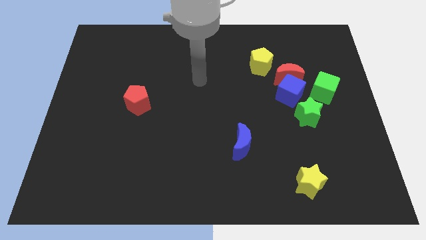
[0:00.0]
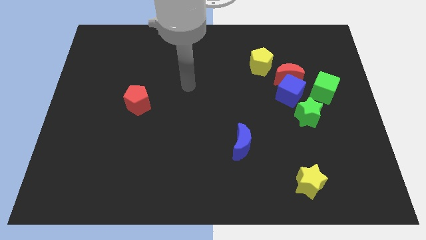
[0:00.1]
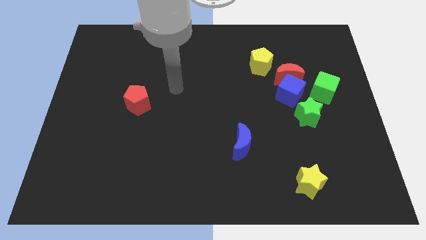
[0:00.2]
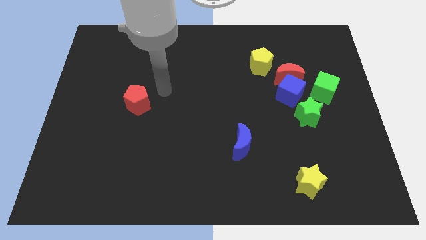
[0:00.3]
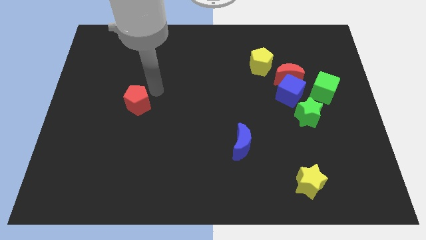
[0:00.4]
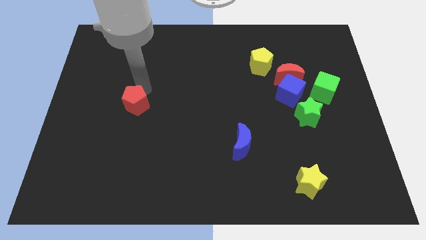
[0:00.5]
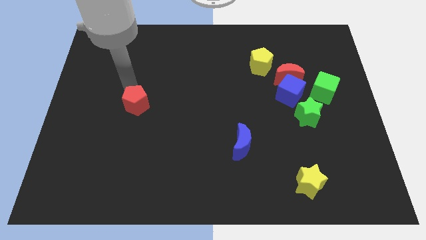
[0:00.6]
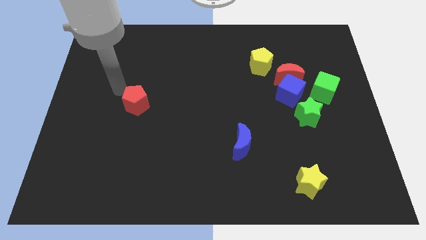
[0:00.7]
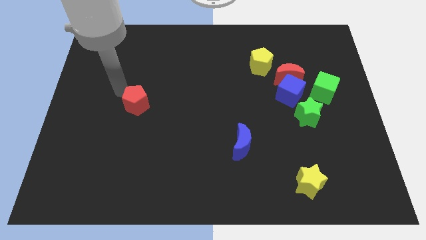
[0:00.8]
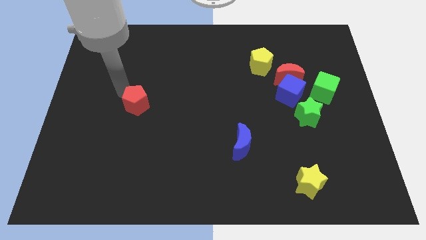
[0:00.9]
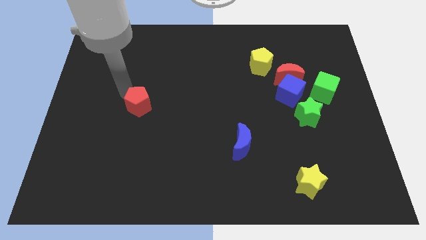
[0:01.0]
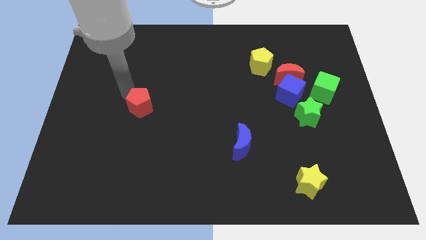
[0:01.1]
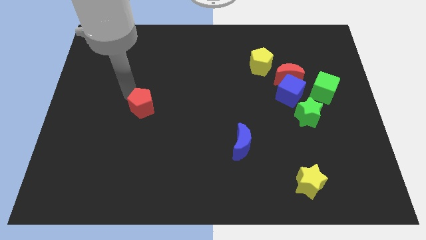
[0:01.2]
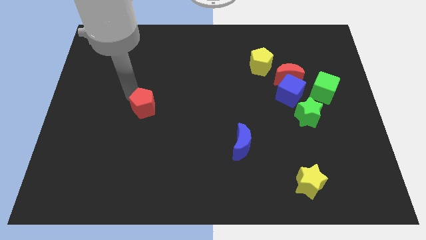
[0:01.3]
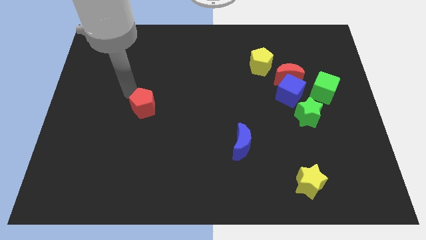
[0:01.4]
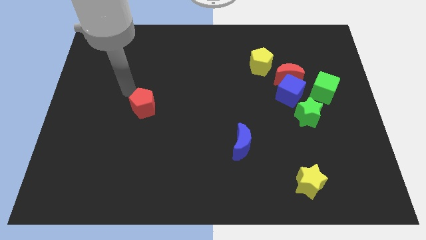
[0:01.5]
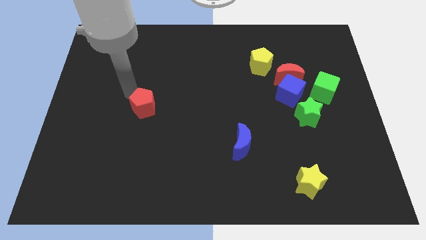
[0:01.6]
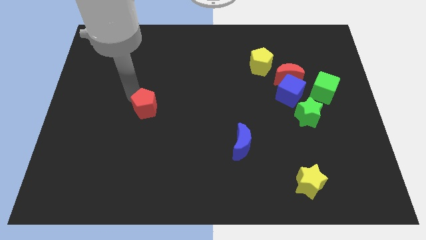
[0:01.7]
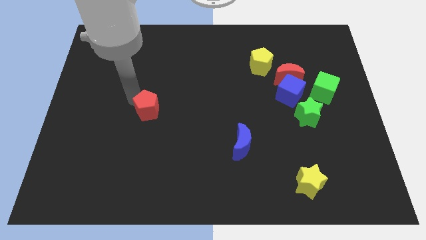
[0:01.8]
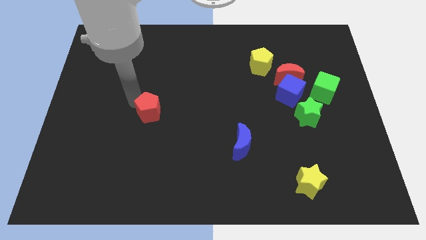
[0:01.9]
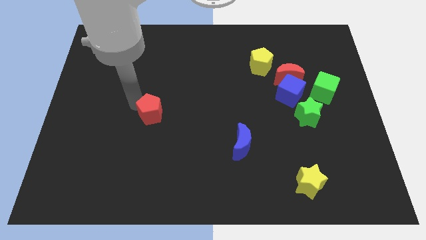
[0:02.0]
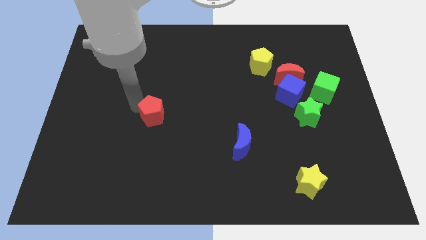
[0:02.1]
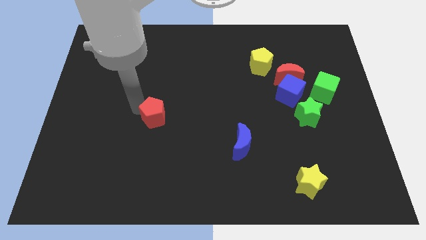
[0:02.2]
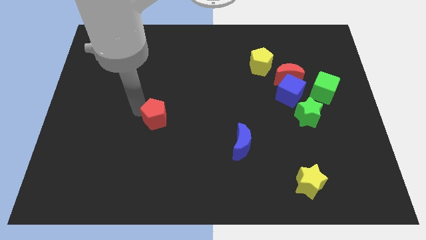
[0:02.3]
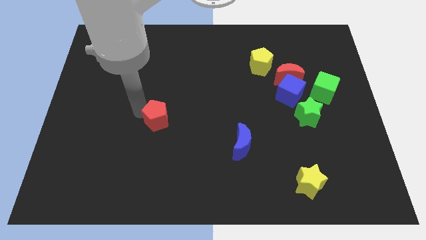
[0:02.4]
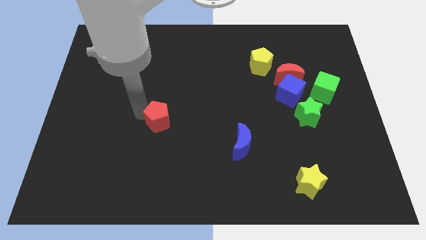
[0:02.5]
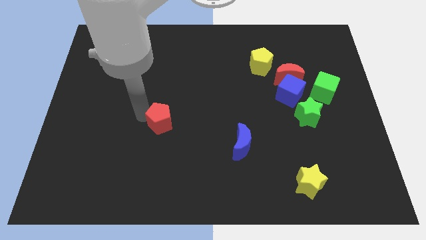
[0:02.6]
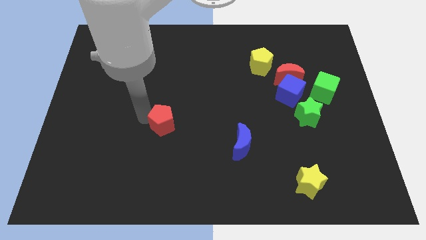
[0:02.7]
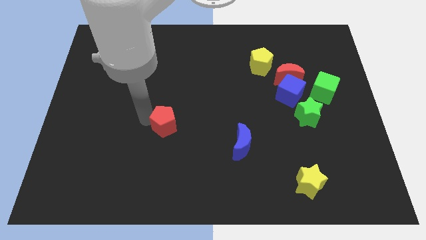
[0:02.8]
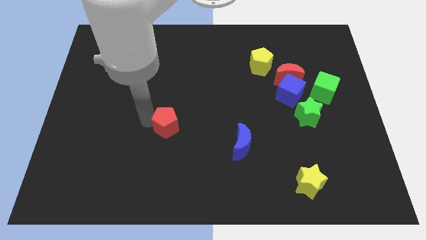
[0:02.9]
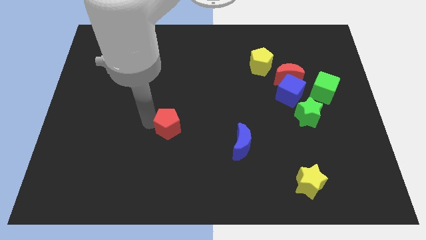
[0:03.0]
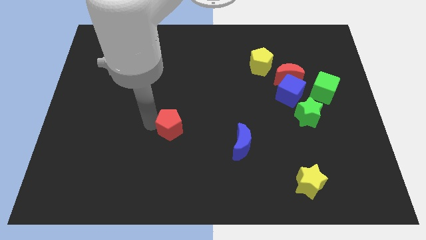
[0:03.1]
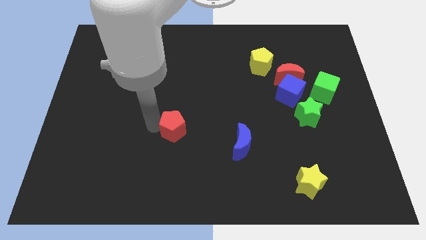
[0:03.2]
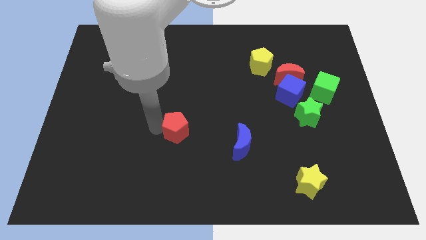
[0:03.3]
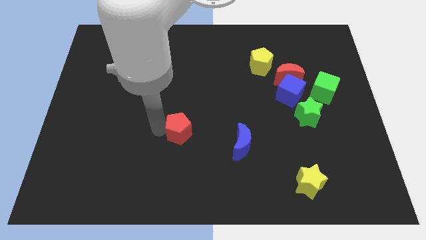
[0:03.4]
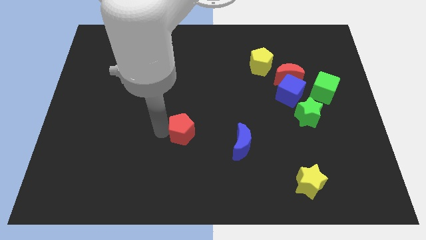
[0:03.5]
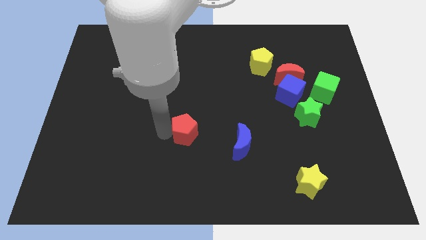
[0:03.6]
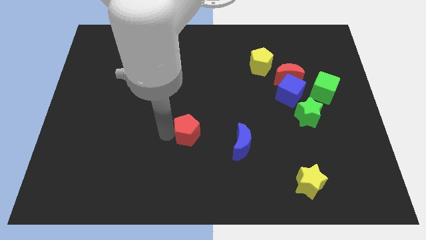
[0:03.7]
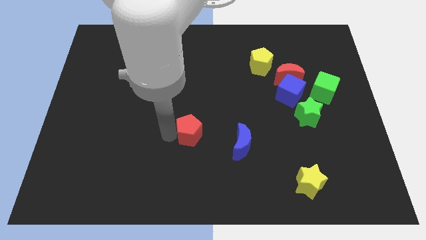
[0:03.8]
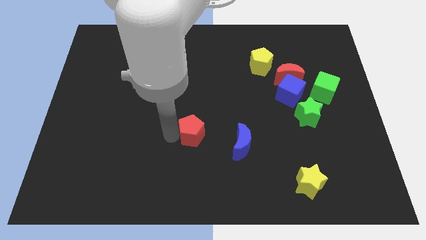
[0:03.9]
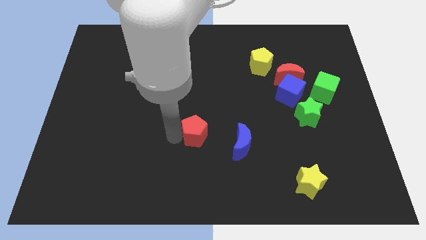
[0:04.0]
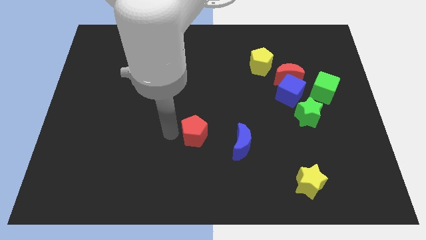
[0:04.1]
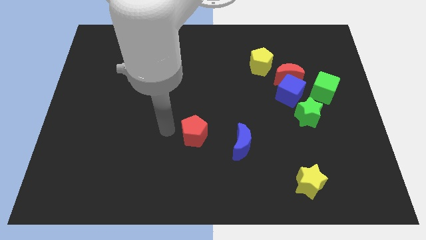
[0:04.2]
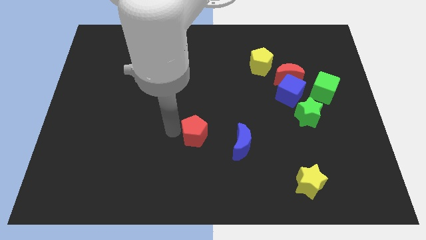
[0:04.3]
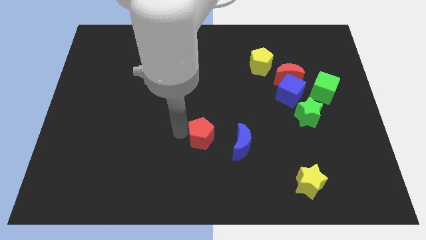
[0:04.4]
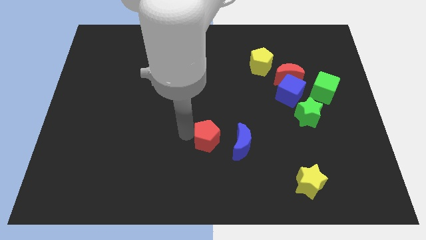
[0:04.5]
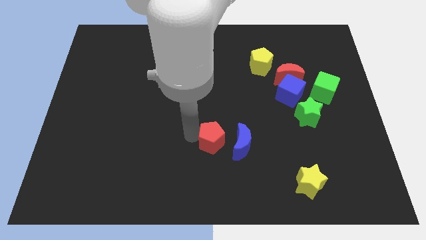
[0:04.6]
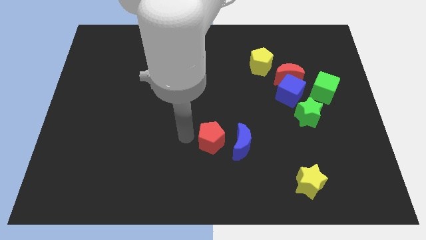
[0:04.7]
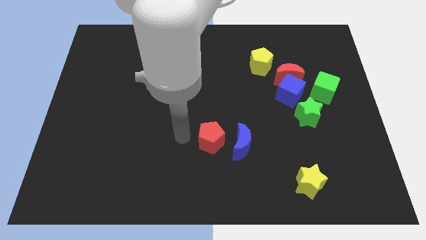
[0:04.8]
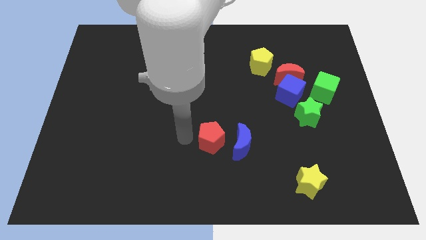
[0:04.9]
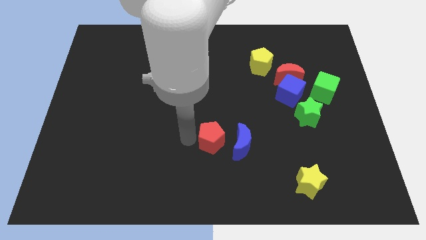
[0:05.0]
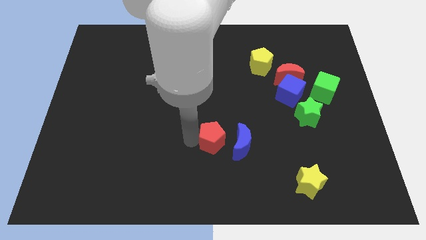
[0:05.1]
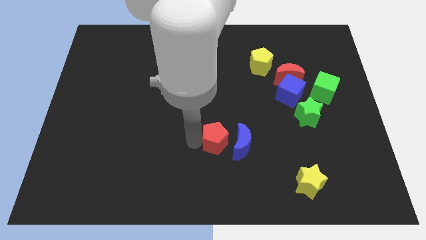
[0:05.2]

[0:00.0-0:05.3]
put the red pentagon to the blue moon

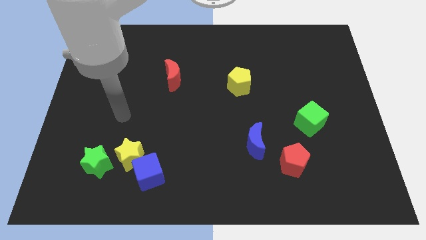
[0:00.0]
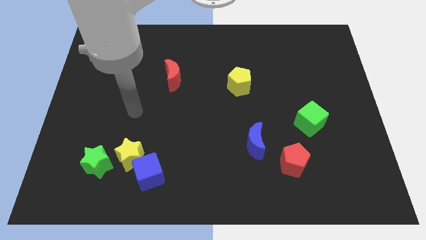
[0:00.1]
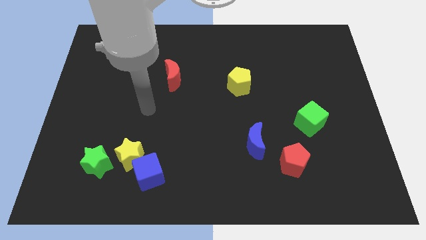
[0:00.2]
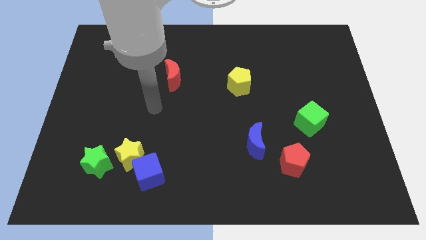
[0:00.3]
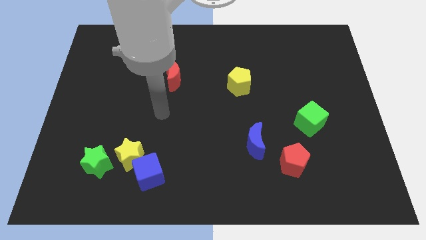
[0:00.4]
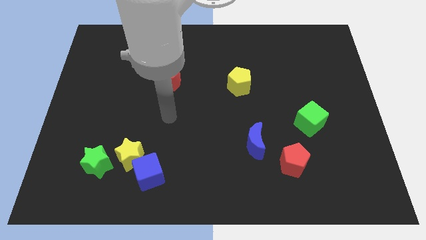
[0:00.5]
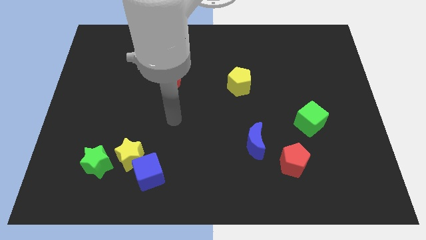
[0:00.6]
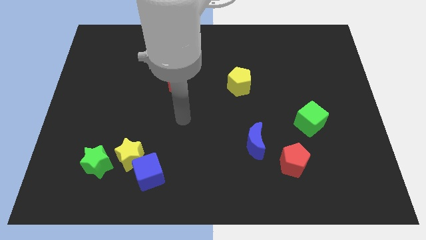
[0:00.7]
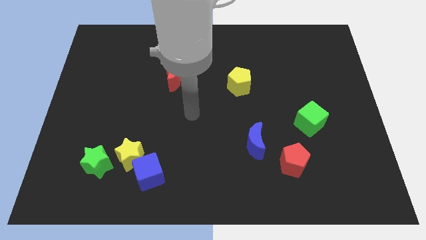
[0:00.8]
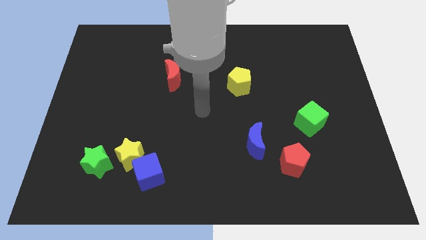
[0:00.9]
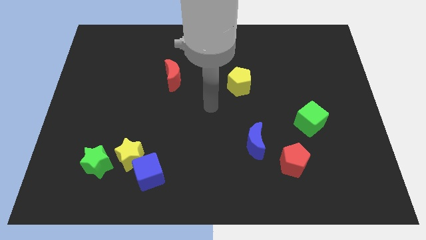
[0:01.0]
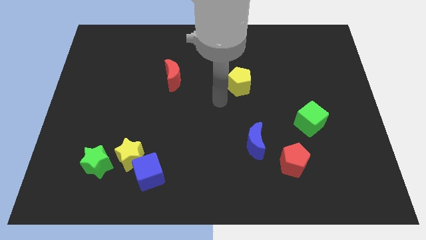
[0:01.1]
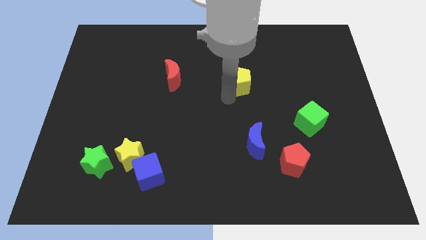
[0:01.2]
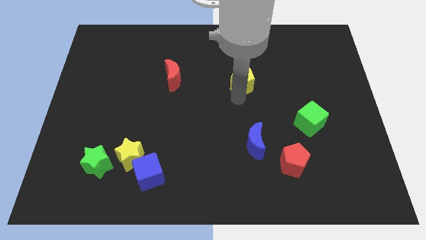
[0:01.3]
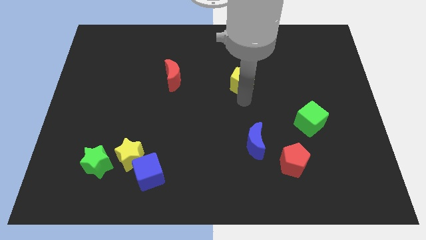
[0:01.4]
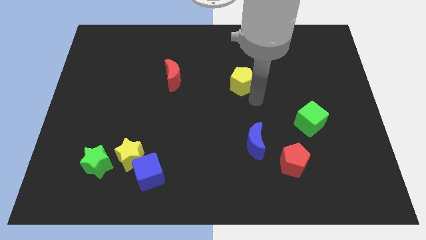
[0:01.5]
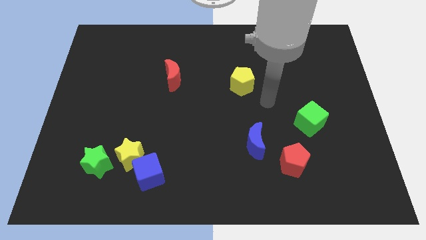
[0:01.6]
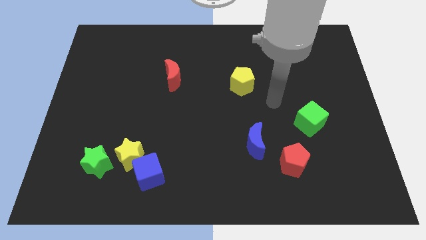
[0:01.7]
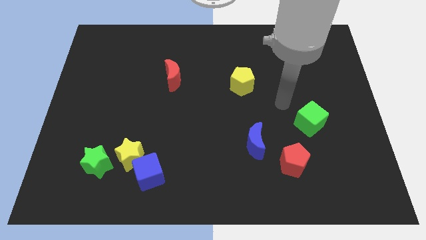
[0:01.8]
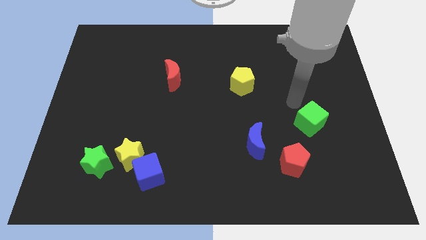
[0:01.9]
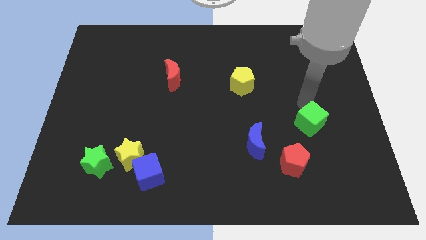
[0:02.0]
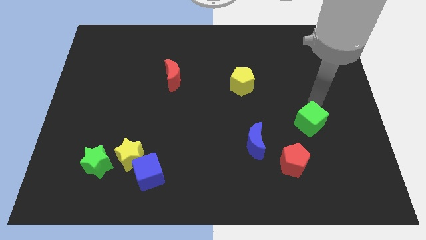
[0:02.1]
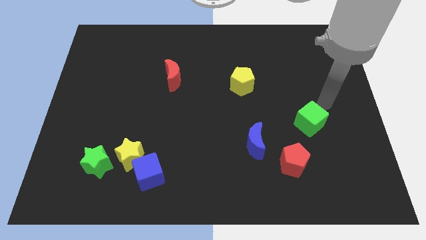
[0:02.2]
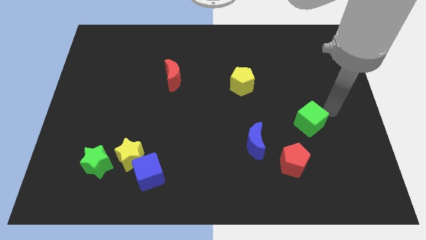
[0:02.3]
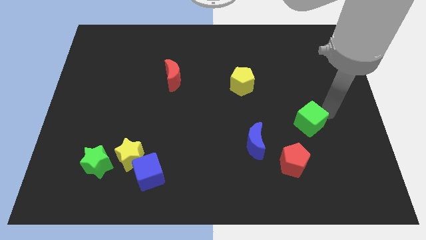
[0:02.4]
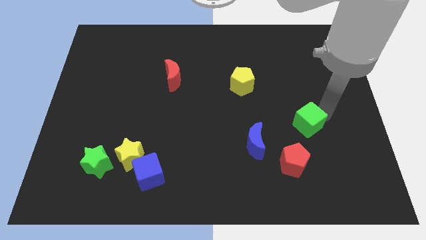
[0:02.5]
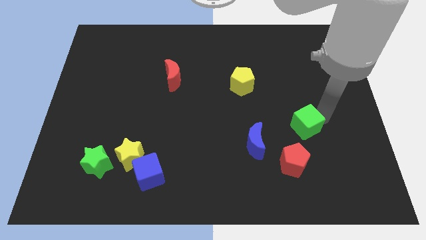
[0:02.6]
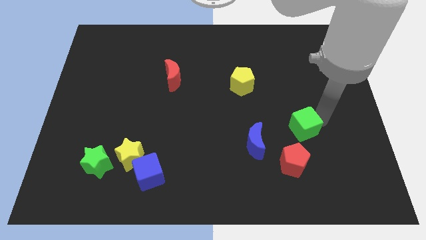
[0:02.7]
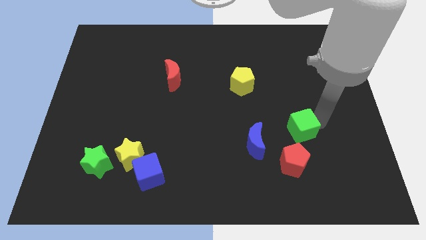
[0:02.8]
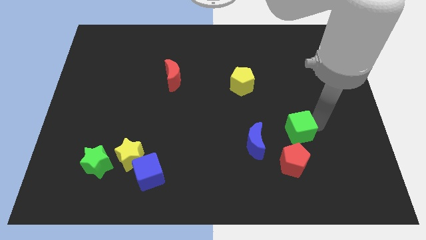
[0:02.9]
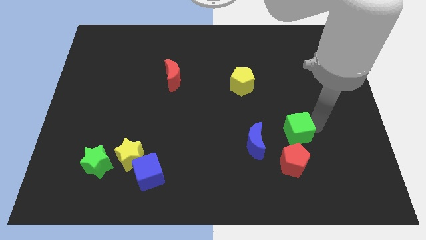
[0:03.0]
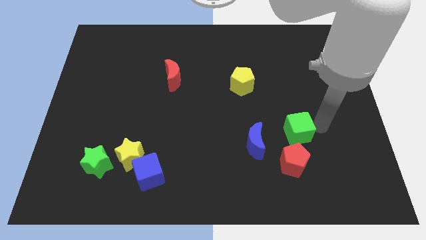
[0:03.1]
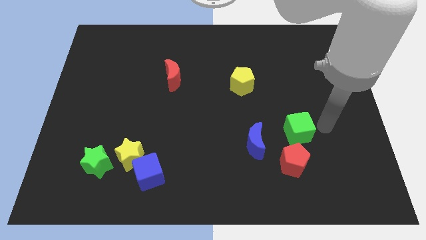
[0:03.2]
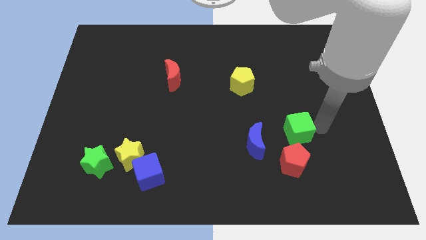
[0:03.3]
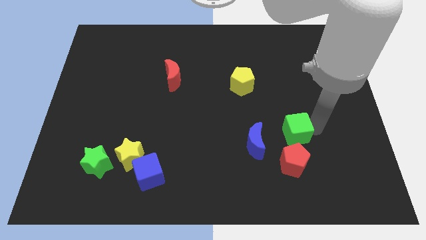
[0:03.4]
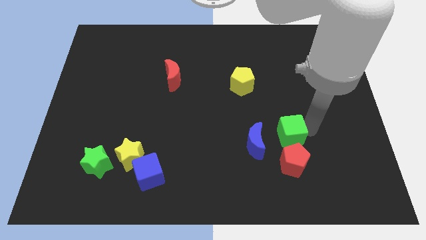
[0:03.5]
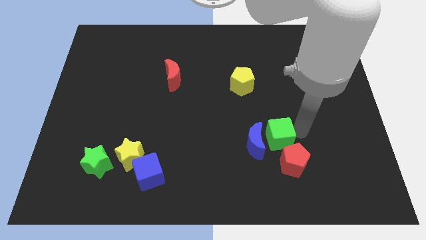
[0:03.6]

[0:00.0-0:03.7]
slide the green cube next to the blue moon
